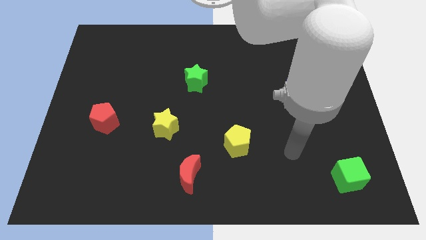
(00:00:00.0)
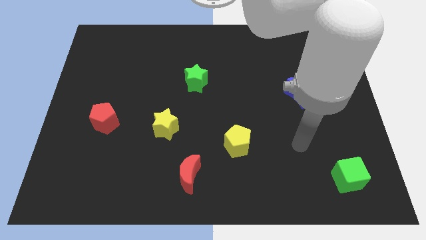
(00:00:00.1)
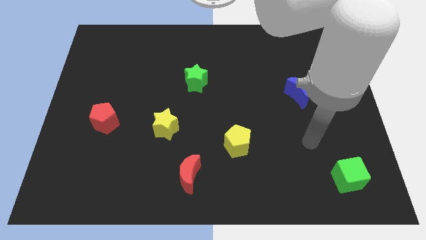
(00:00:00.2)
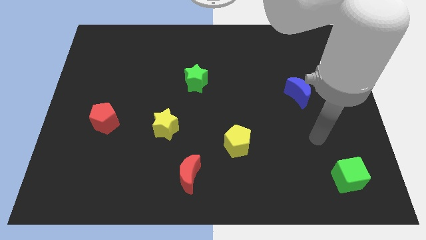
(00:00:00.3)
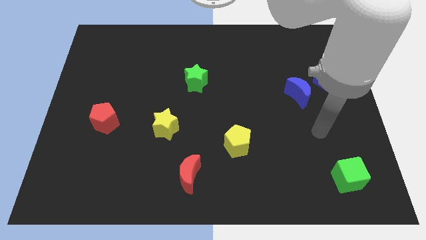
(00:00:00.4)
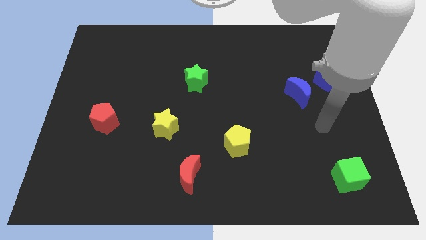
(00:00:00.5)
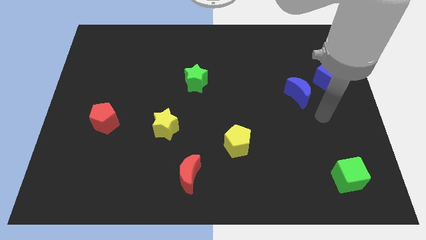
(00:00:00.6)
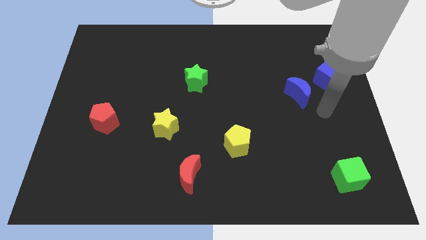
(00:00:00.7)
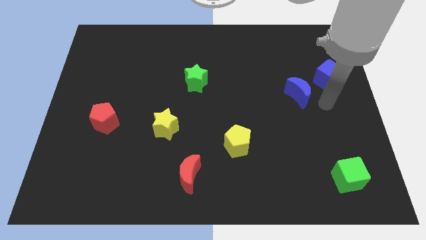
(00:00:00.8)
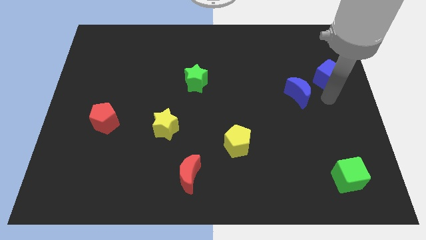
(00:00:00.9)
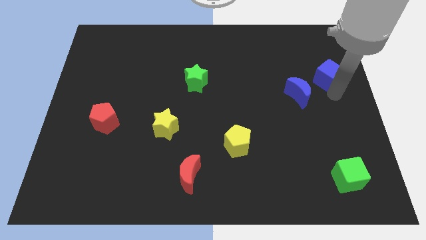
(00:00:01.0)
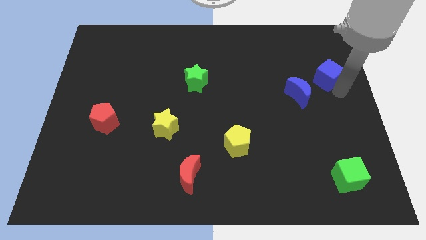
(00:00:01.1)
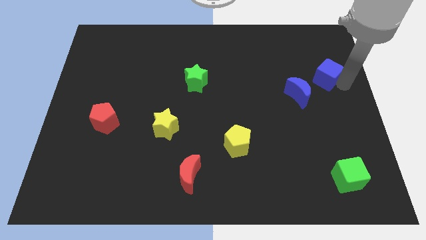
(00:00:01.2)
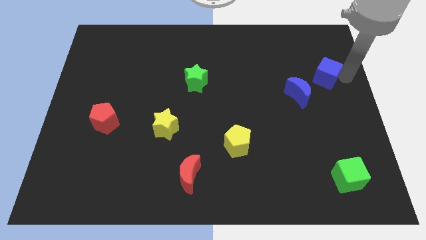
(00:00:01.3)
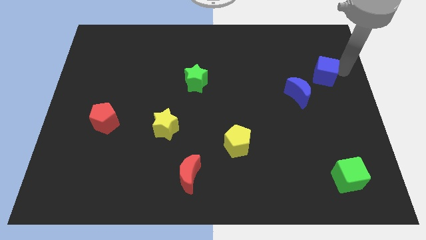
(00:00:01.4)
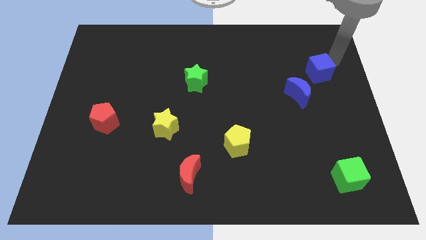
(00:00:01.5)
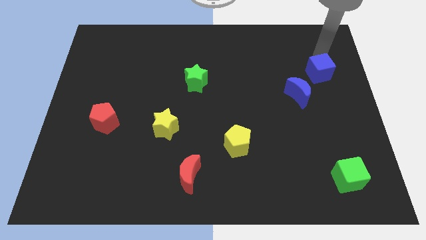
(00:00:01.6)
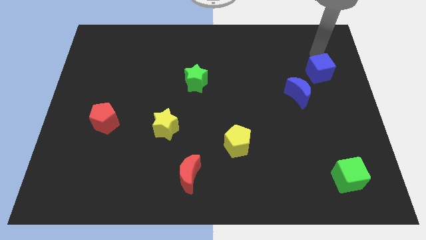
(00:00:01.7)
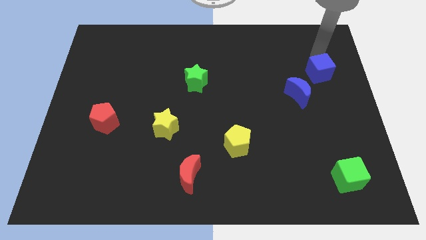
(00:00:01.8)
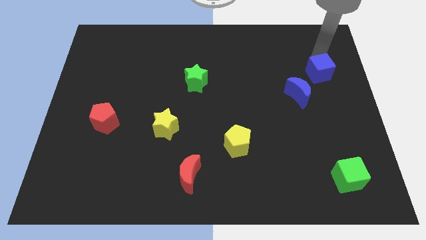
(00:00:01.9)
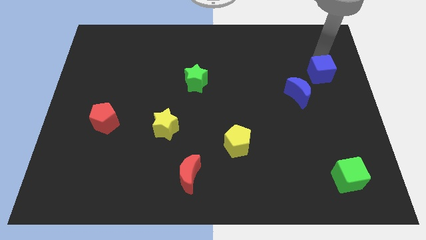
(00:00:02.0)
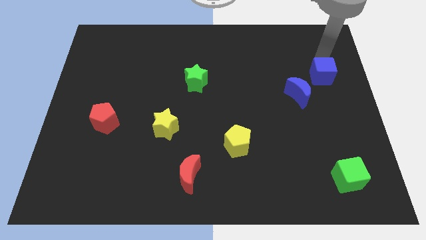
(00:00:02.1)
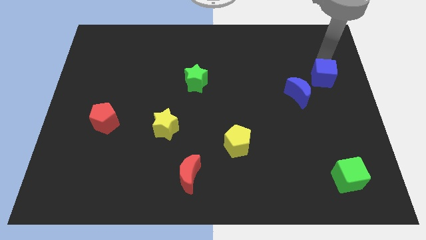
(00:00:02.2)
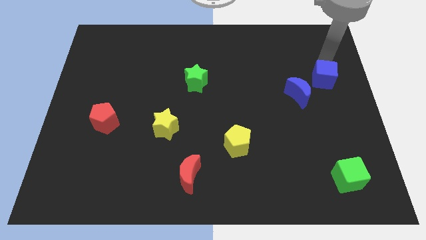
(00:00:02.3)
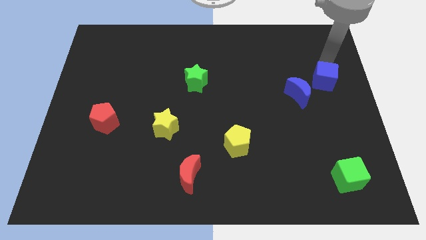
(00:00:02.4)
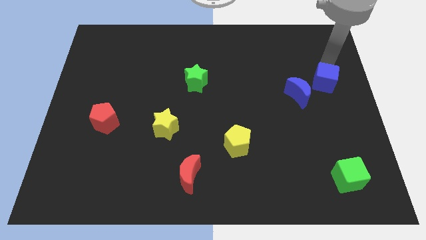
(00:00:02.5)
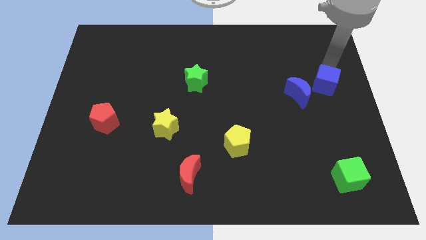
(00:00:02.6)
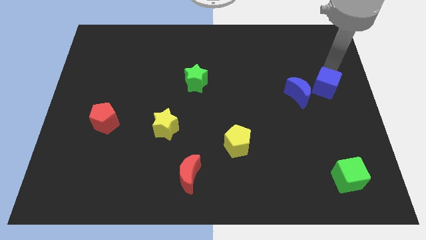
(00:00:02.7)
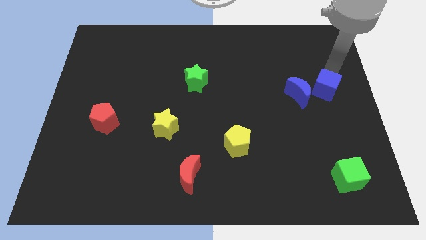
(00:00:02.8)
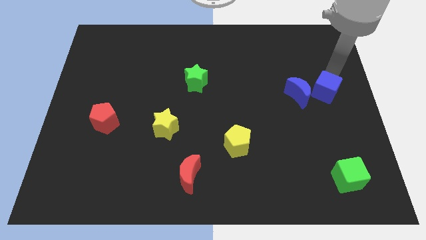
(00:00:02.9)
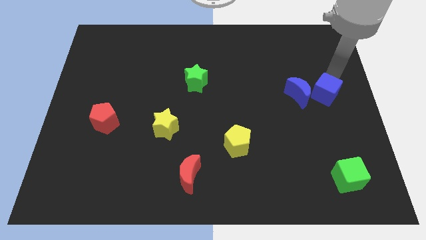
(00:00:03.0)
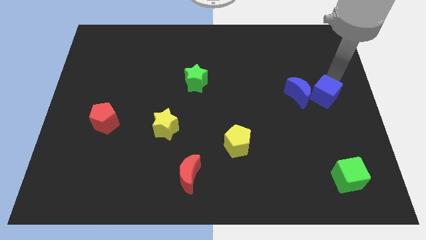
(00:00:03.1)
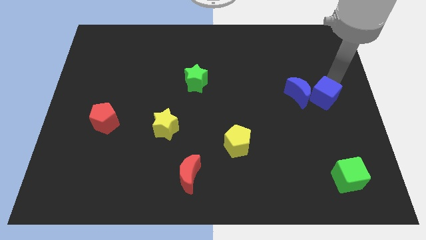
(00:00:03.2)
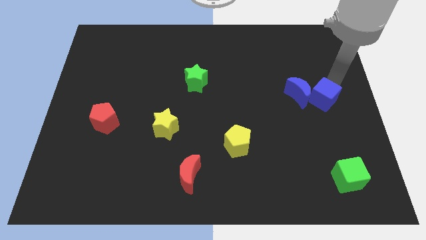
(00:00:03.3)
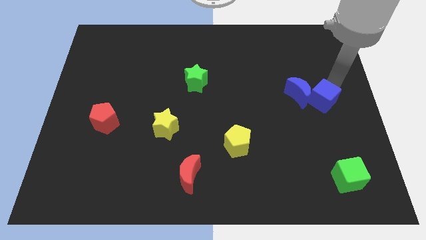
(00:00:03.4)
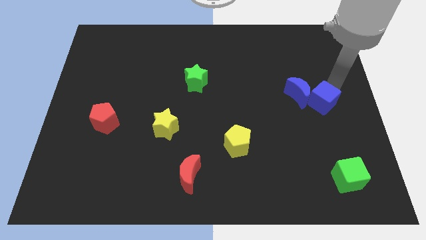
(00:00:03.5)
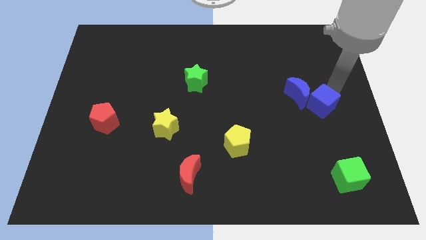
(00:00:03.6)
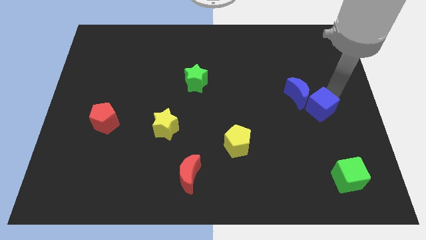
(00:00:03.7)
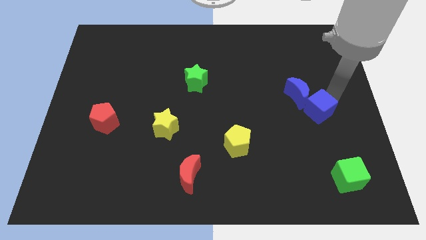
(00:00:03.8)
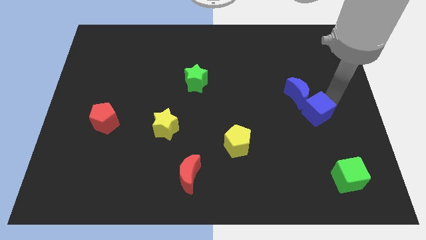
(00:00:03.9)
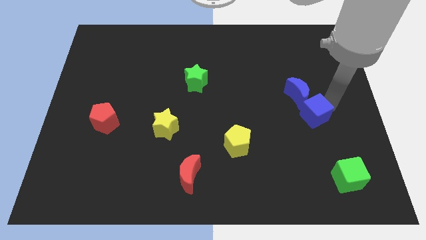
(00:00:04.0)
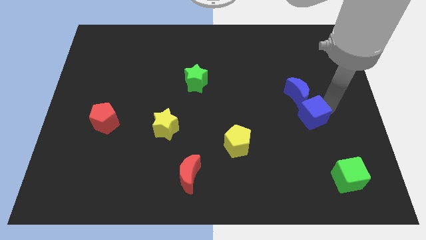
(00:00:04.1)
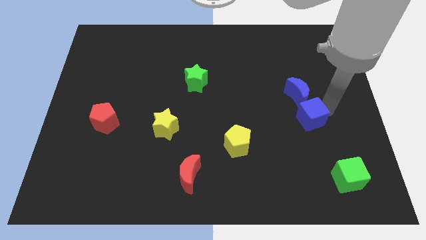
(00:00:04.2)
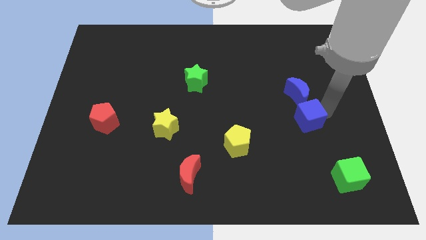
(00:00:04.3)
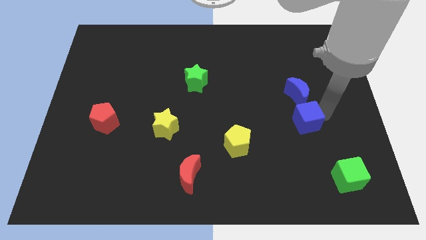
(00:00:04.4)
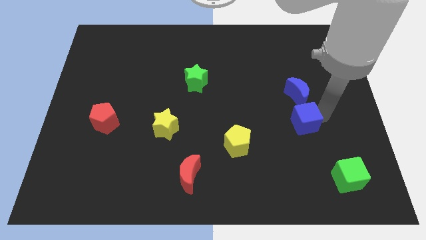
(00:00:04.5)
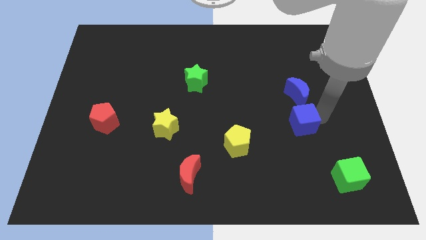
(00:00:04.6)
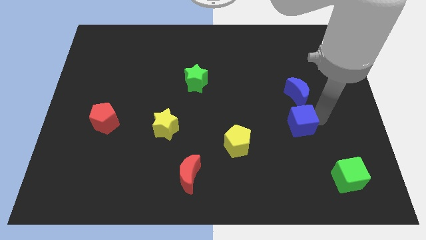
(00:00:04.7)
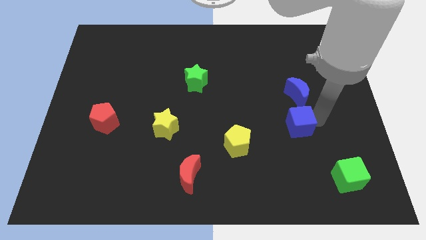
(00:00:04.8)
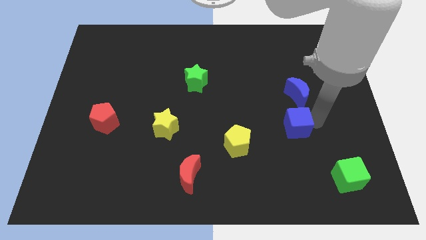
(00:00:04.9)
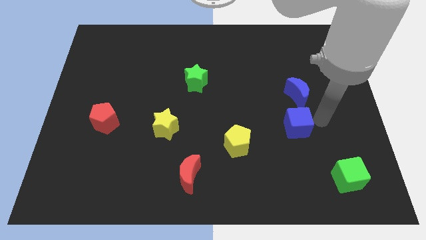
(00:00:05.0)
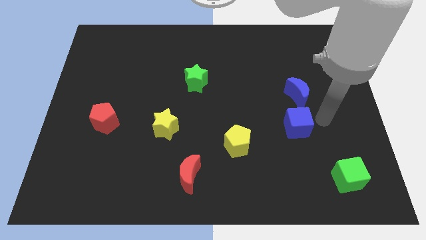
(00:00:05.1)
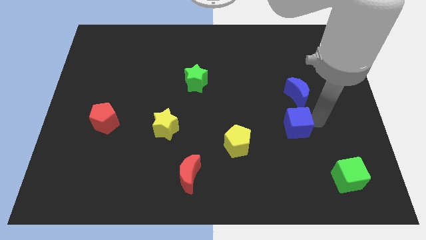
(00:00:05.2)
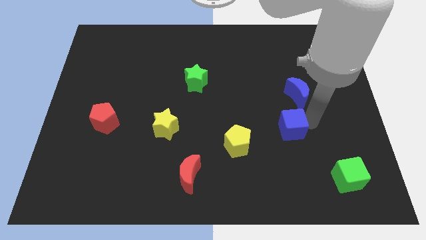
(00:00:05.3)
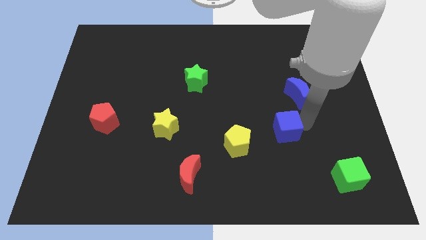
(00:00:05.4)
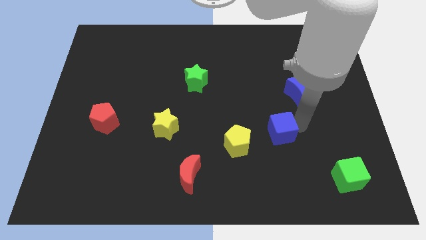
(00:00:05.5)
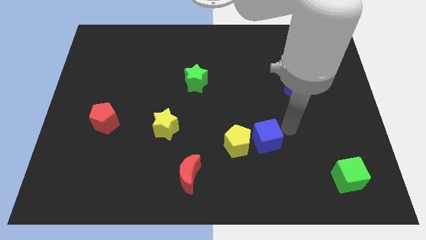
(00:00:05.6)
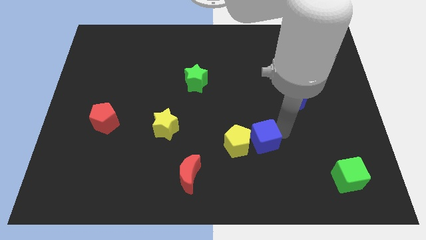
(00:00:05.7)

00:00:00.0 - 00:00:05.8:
push the blue cube to the yellow pentagon

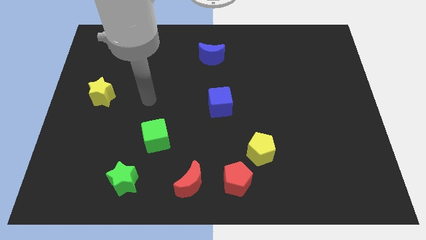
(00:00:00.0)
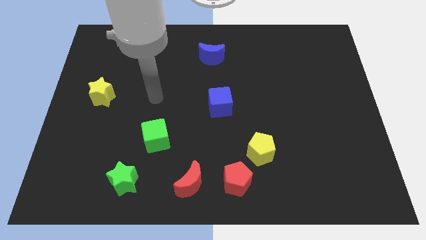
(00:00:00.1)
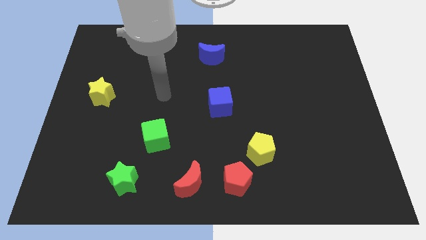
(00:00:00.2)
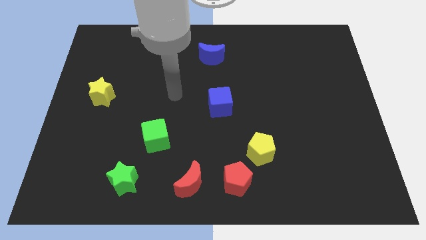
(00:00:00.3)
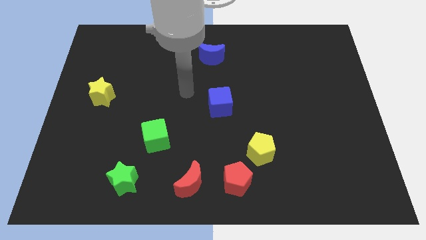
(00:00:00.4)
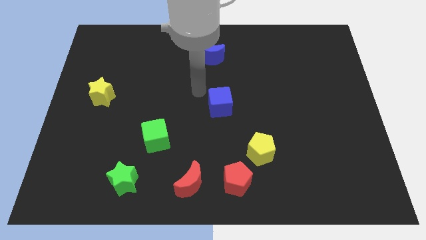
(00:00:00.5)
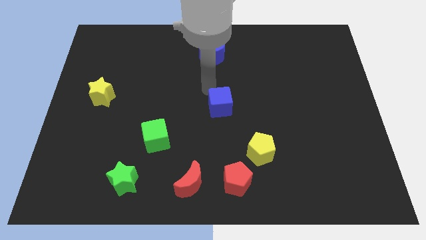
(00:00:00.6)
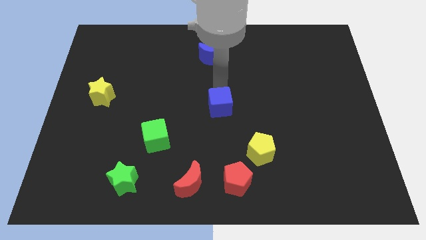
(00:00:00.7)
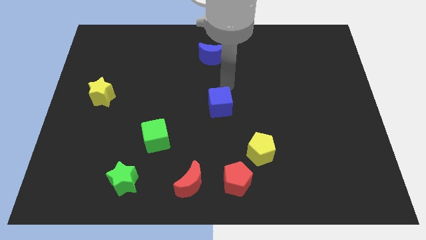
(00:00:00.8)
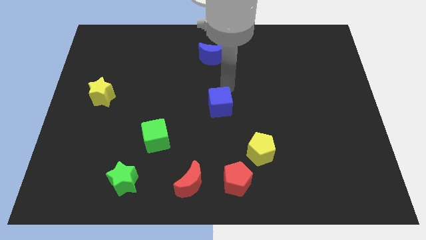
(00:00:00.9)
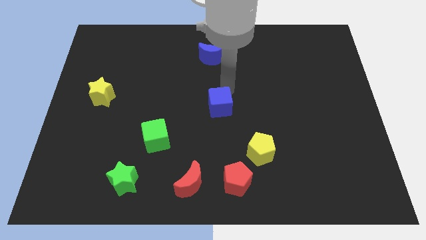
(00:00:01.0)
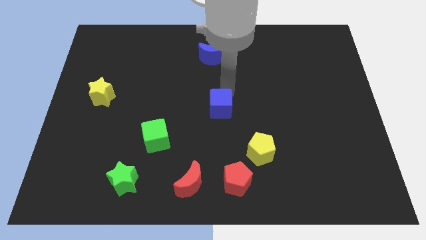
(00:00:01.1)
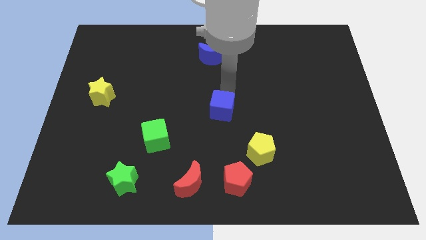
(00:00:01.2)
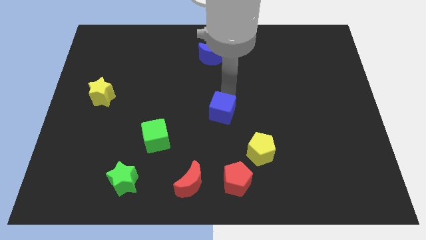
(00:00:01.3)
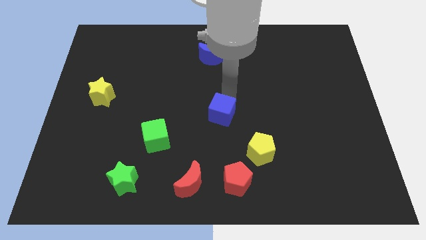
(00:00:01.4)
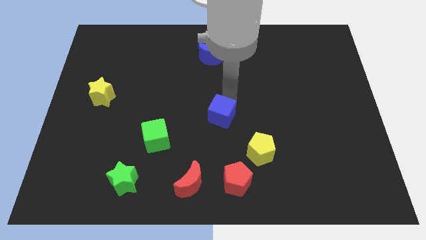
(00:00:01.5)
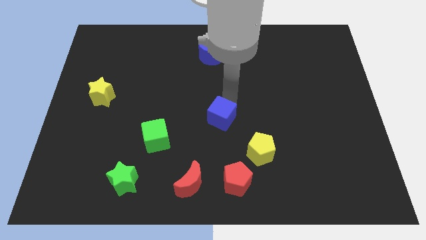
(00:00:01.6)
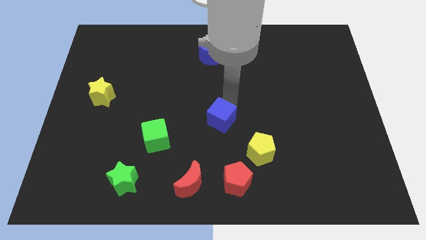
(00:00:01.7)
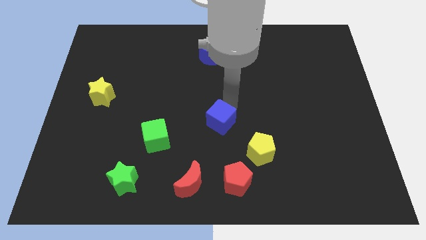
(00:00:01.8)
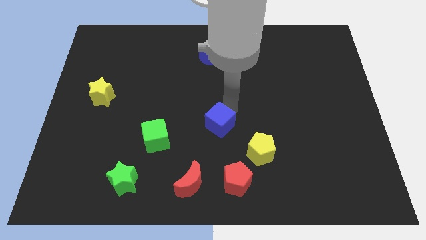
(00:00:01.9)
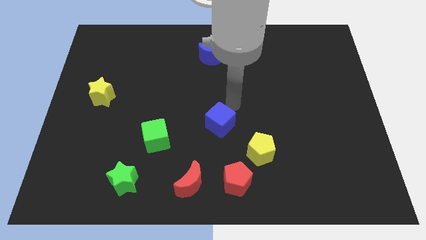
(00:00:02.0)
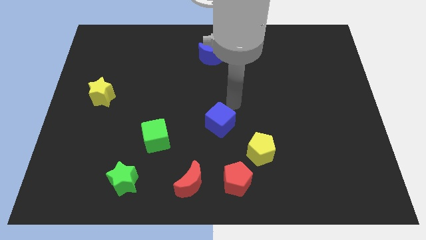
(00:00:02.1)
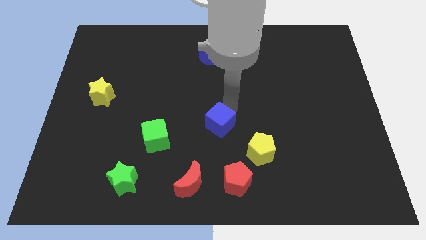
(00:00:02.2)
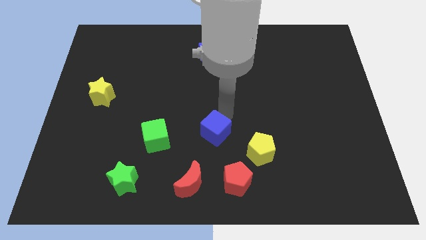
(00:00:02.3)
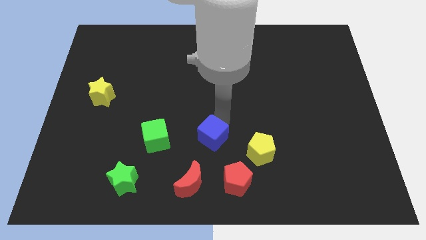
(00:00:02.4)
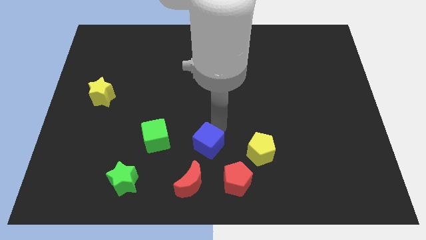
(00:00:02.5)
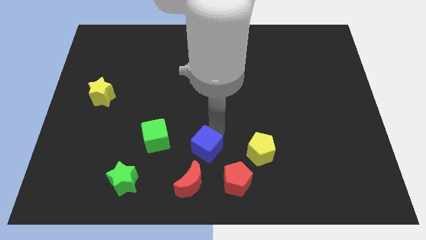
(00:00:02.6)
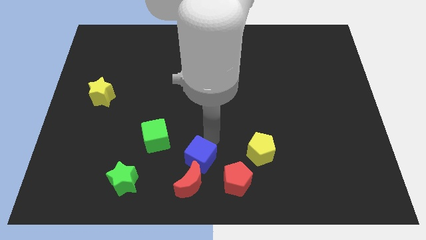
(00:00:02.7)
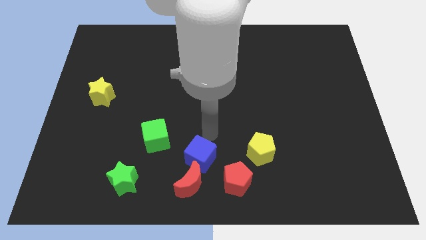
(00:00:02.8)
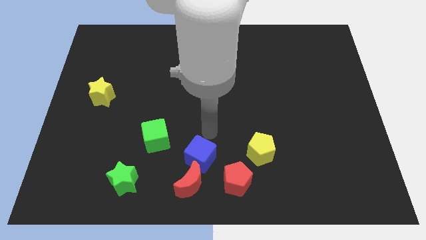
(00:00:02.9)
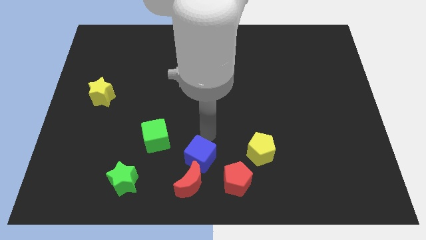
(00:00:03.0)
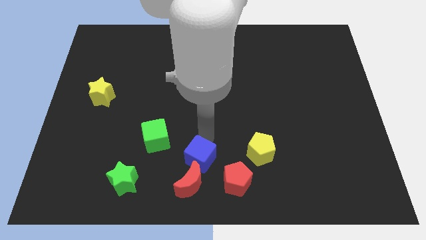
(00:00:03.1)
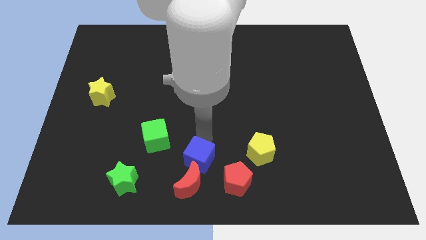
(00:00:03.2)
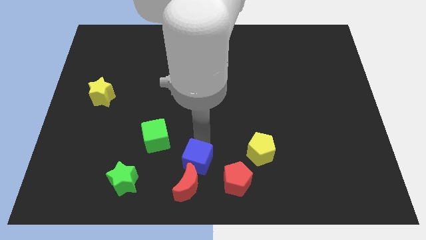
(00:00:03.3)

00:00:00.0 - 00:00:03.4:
slide the blue cube towards the red moon
